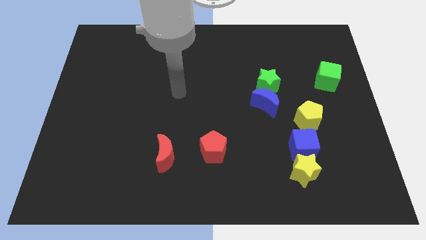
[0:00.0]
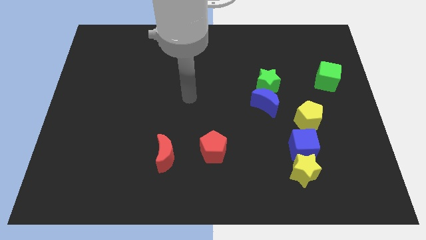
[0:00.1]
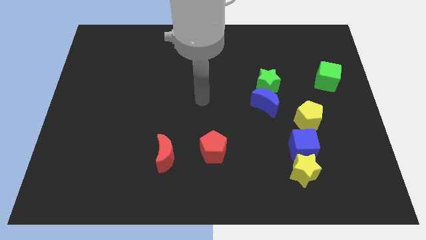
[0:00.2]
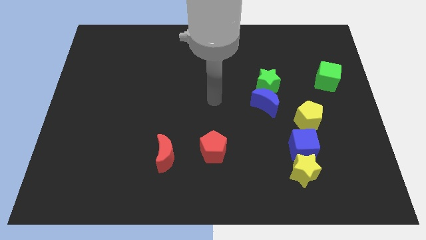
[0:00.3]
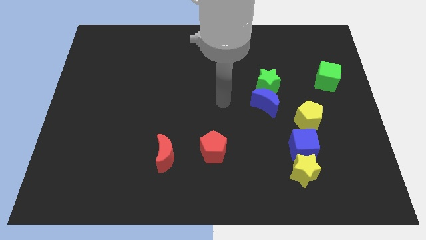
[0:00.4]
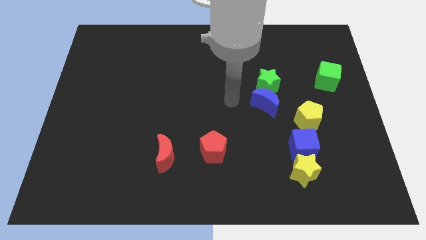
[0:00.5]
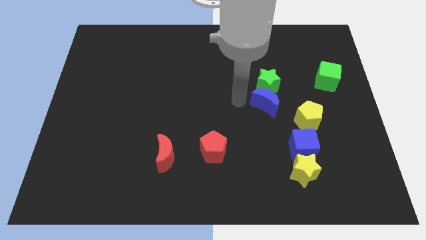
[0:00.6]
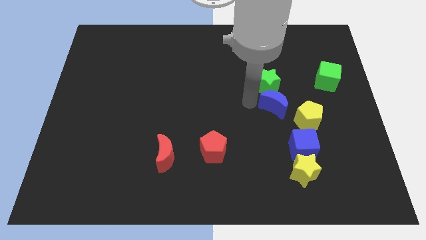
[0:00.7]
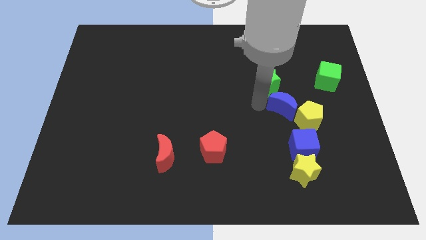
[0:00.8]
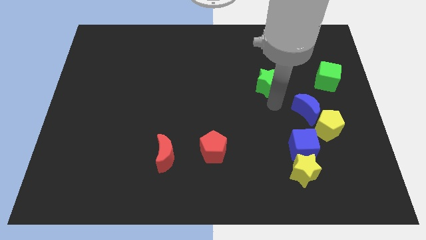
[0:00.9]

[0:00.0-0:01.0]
pull the green star apart from the blue moon

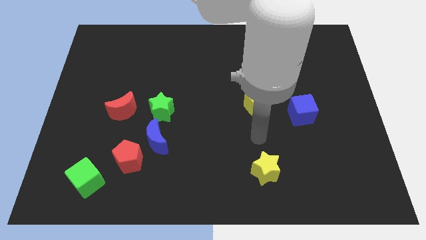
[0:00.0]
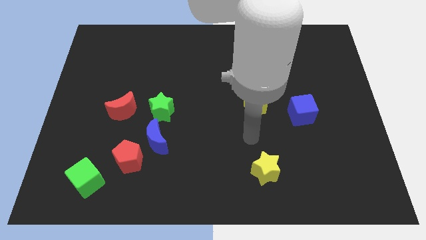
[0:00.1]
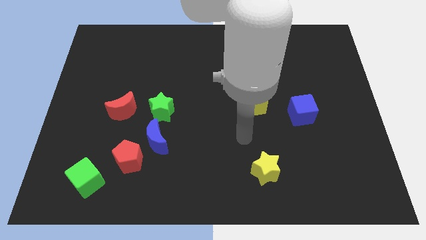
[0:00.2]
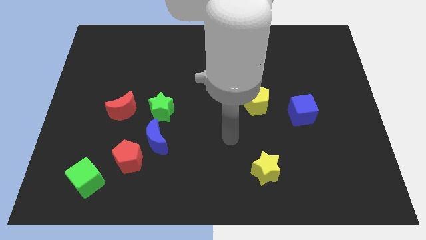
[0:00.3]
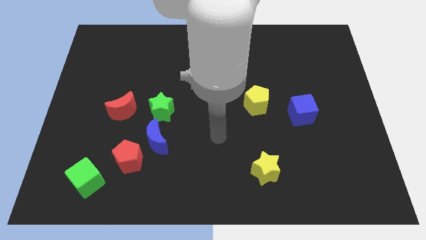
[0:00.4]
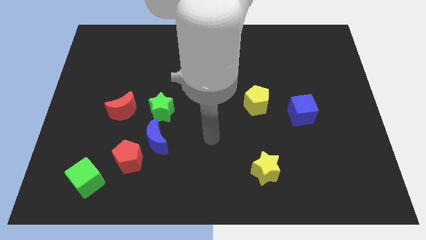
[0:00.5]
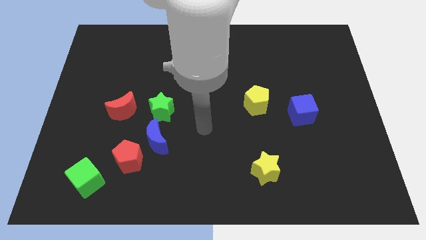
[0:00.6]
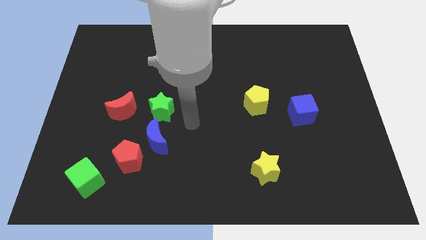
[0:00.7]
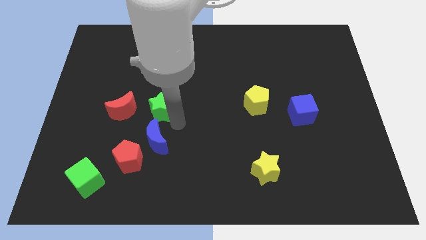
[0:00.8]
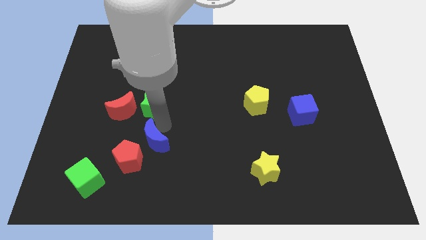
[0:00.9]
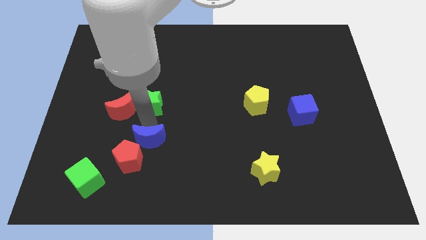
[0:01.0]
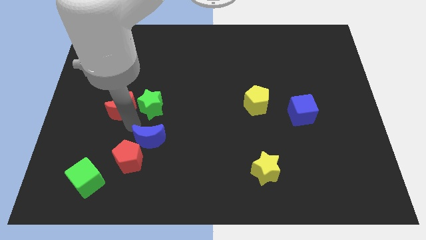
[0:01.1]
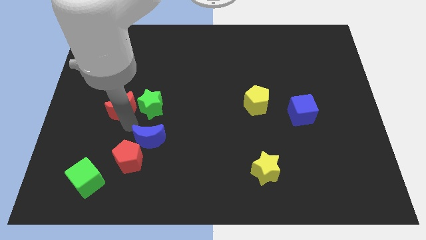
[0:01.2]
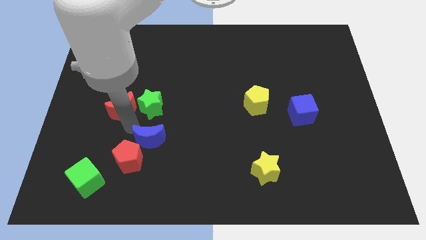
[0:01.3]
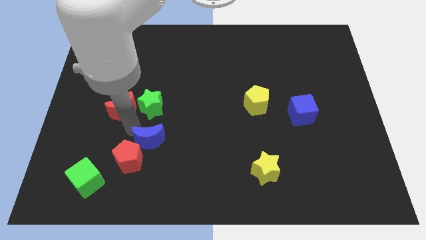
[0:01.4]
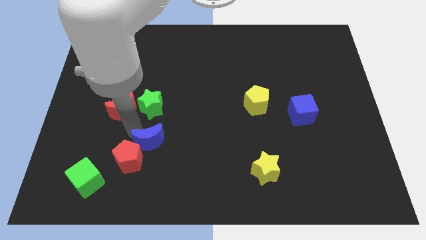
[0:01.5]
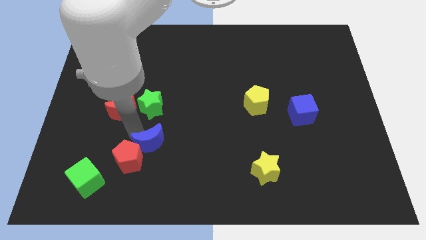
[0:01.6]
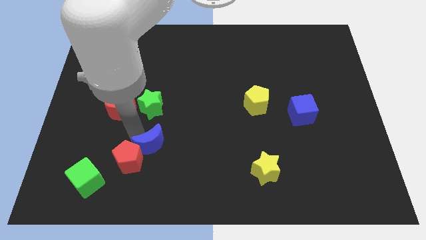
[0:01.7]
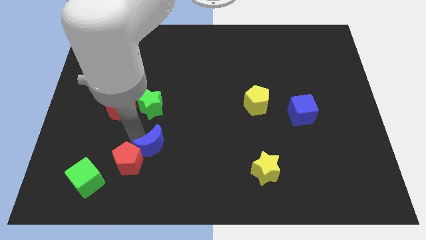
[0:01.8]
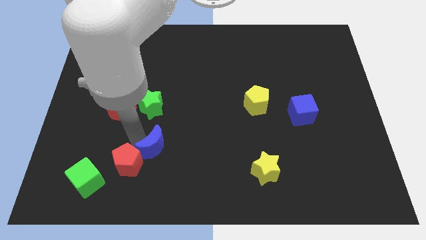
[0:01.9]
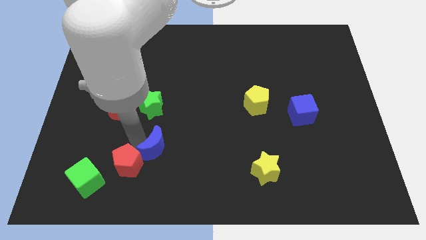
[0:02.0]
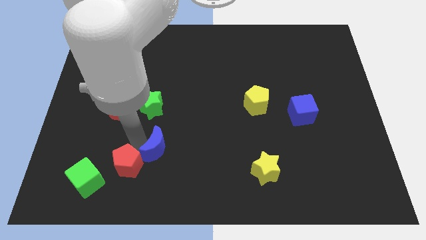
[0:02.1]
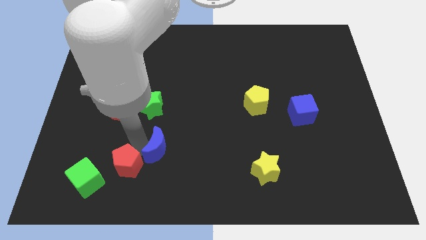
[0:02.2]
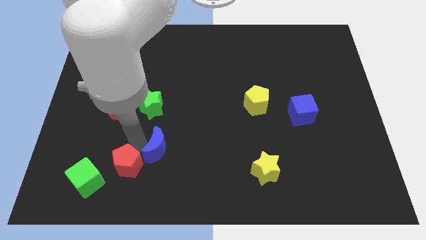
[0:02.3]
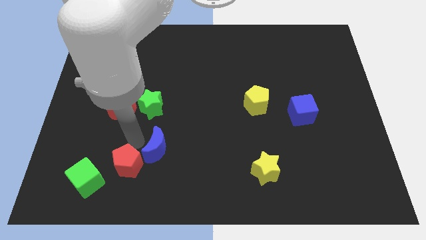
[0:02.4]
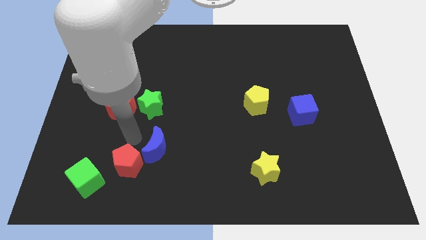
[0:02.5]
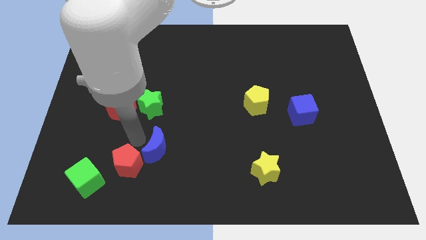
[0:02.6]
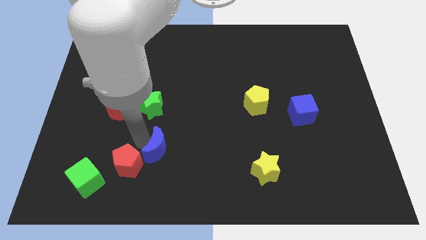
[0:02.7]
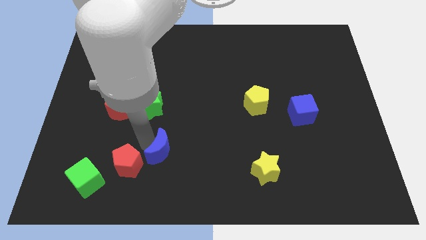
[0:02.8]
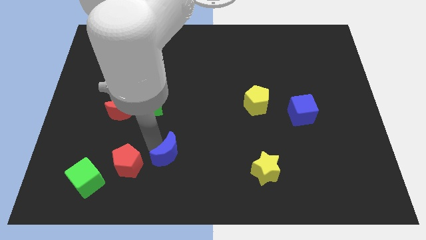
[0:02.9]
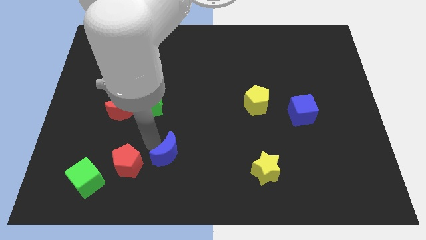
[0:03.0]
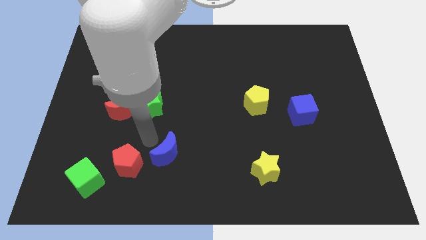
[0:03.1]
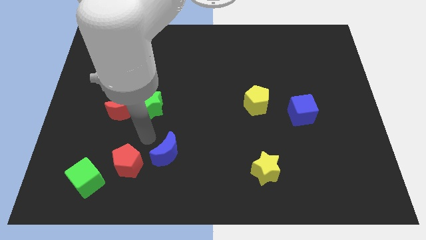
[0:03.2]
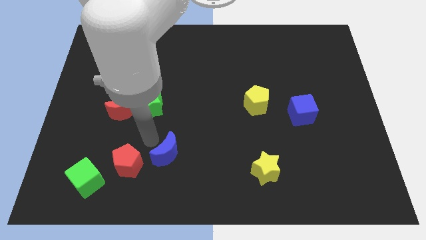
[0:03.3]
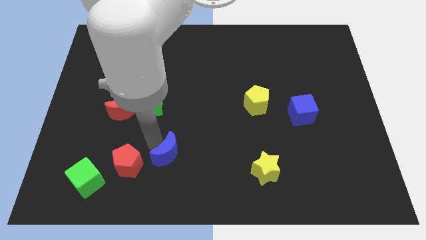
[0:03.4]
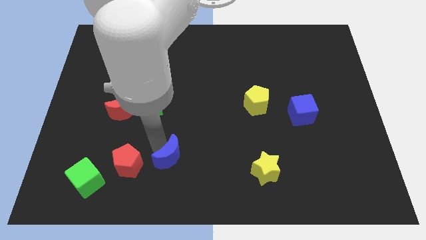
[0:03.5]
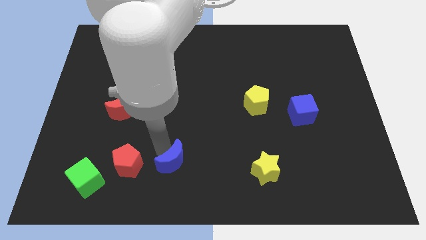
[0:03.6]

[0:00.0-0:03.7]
move the blue moon away from the red pentagon and green star

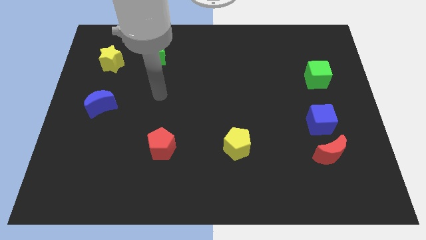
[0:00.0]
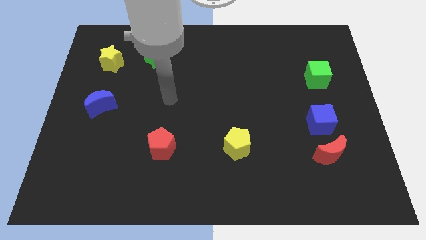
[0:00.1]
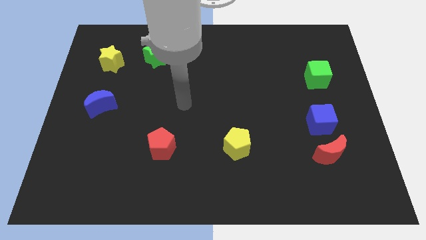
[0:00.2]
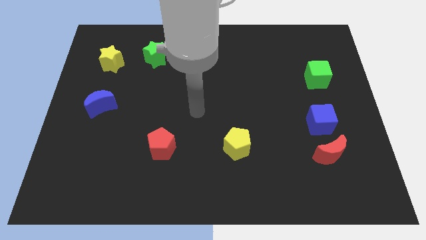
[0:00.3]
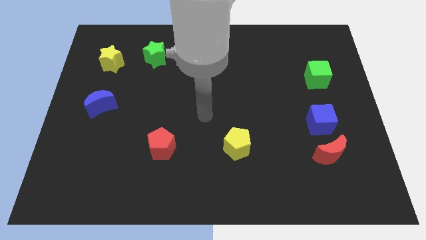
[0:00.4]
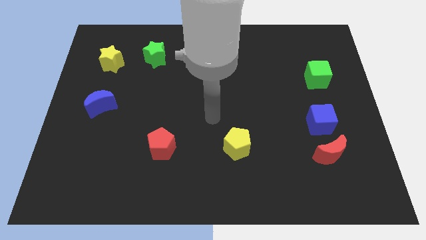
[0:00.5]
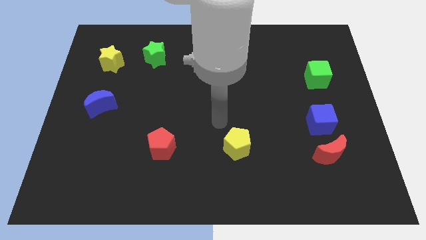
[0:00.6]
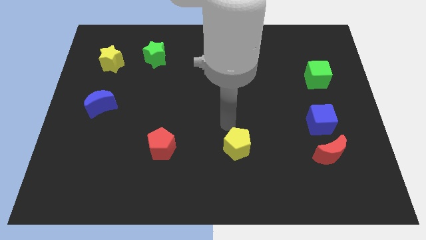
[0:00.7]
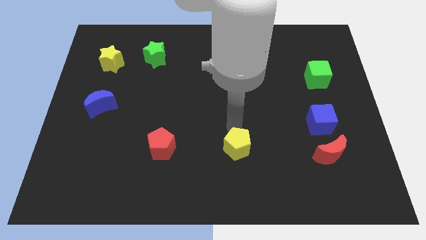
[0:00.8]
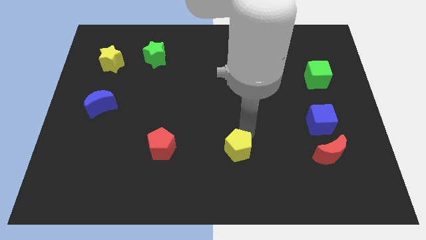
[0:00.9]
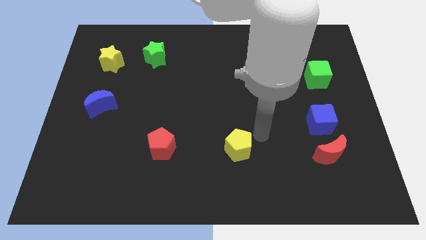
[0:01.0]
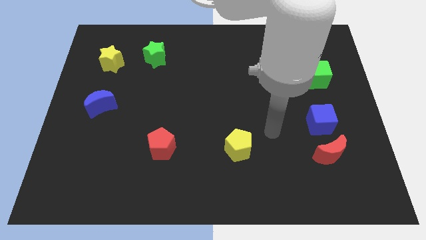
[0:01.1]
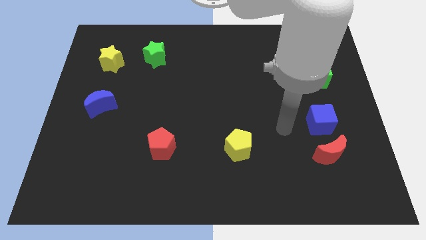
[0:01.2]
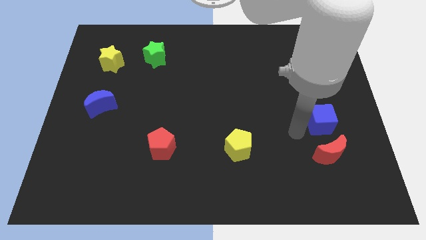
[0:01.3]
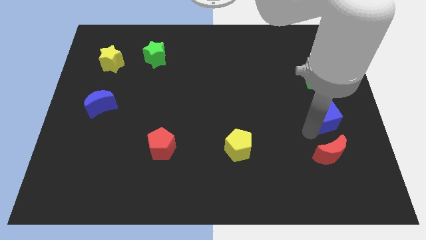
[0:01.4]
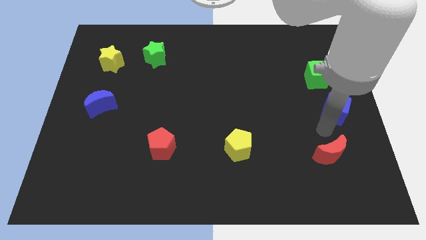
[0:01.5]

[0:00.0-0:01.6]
pull the red moon apart from the blue cube

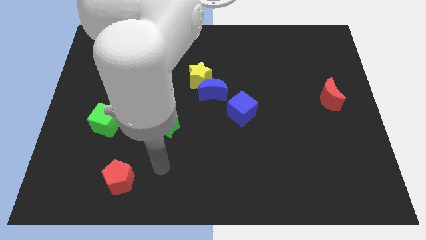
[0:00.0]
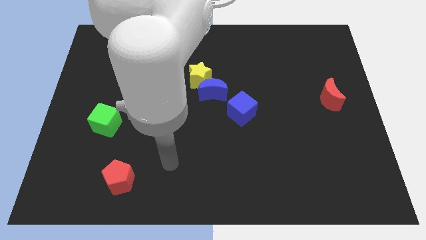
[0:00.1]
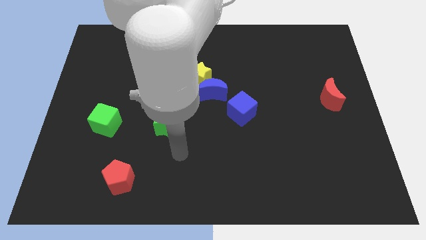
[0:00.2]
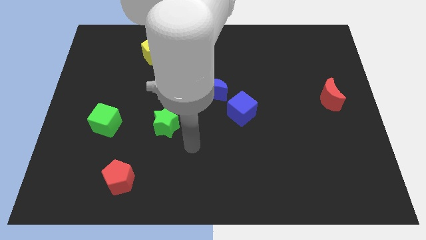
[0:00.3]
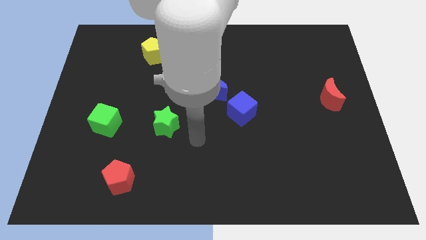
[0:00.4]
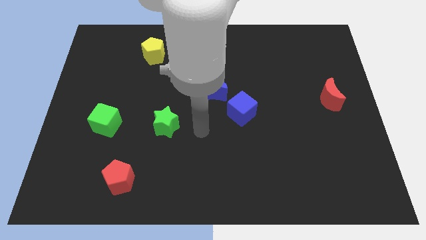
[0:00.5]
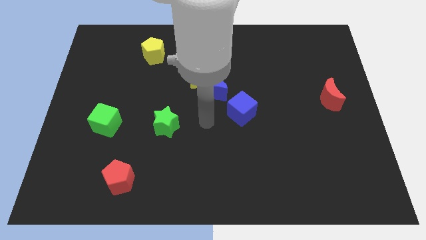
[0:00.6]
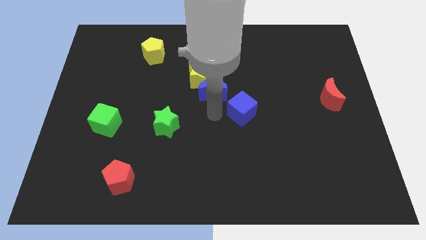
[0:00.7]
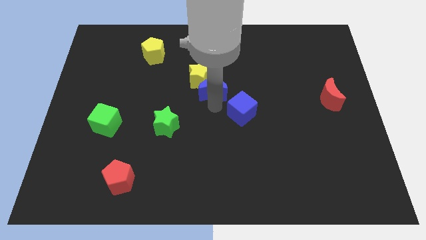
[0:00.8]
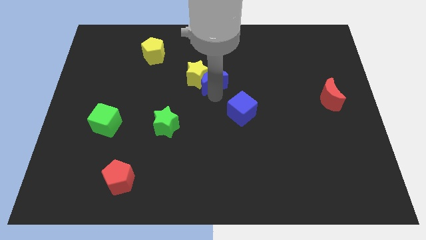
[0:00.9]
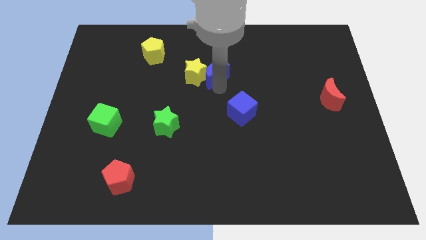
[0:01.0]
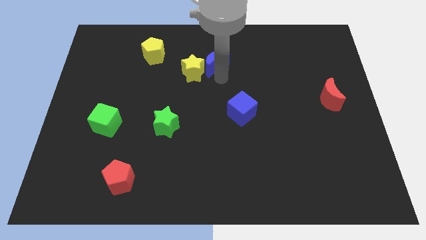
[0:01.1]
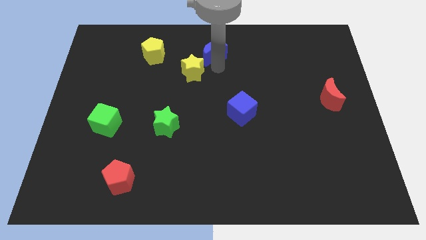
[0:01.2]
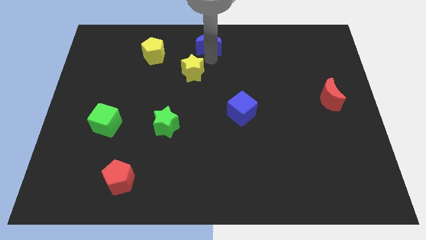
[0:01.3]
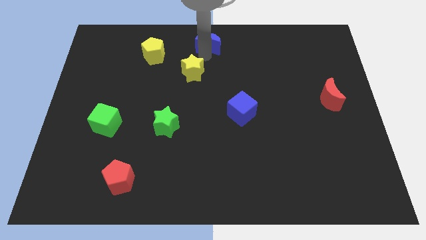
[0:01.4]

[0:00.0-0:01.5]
separate the yellow star from the blue moon

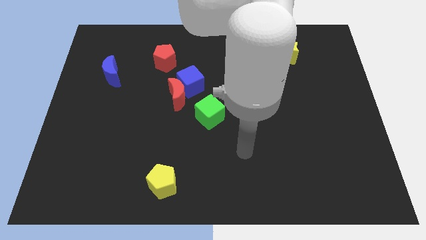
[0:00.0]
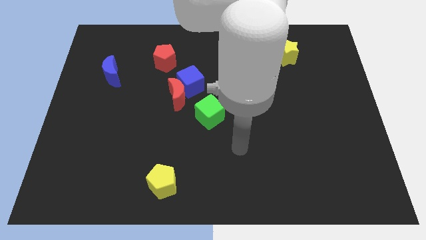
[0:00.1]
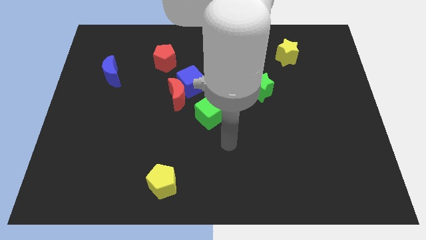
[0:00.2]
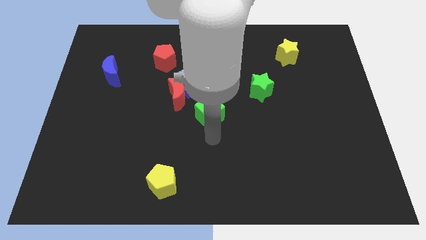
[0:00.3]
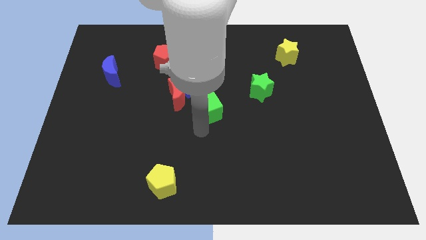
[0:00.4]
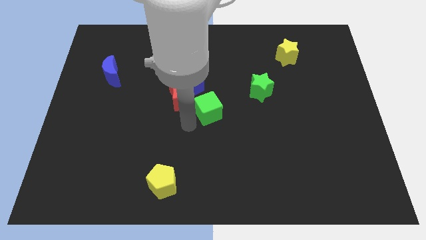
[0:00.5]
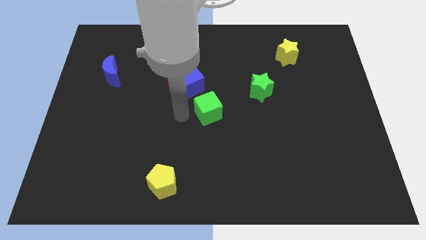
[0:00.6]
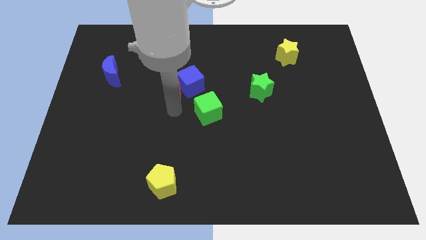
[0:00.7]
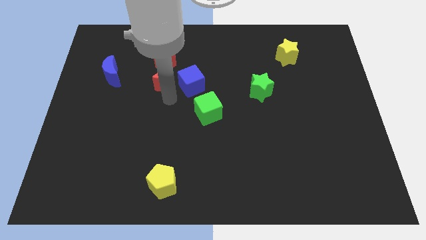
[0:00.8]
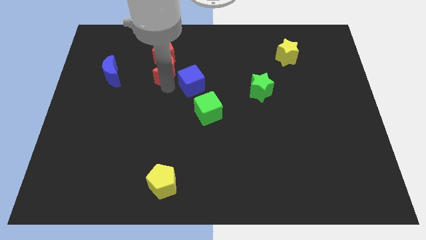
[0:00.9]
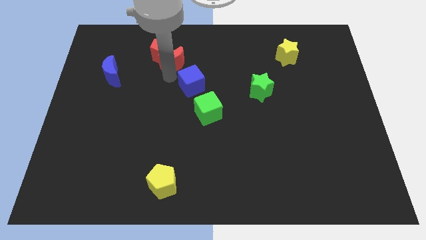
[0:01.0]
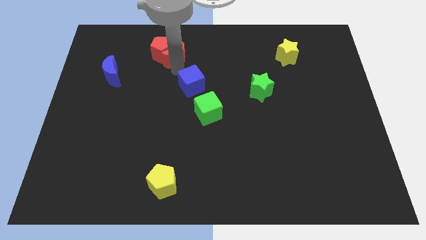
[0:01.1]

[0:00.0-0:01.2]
move the blue cube away from the red moon

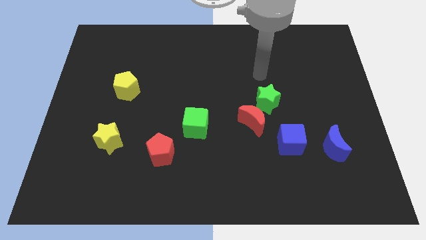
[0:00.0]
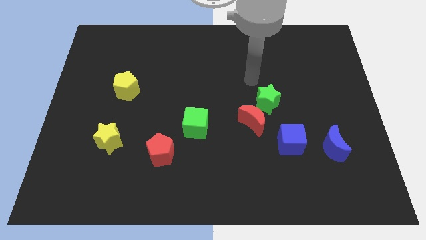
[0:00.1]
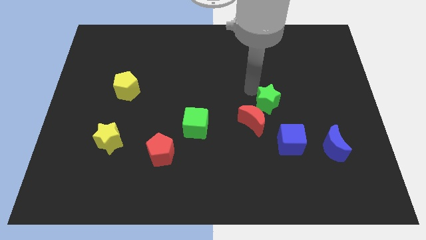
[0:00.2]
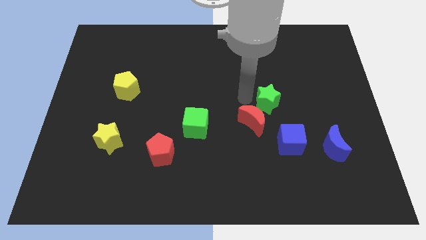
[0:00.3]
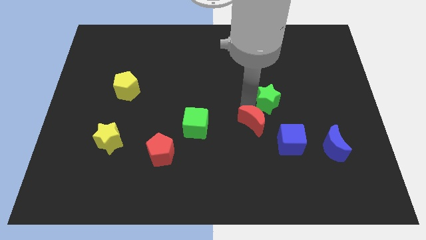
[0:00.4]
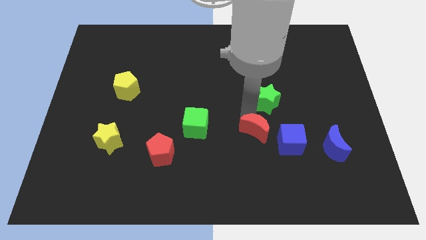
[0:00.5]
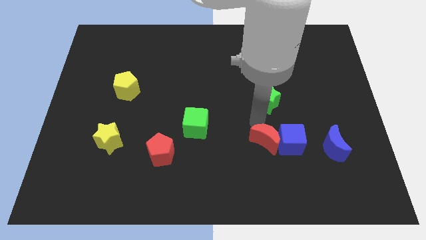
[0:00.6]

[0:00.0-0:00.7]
move the green star away from the red moon
